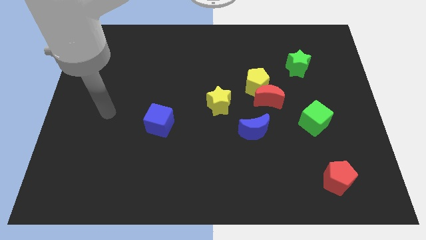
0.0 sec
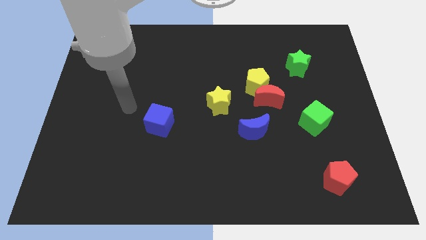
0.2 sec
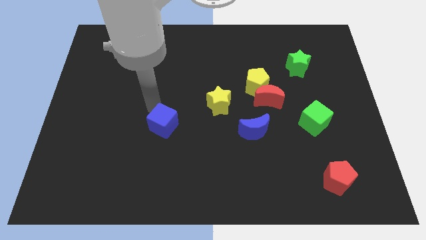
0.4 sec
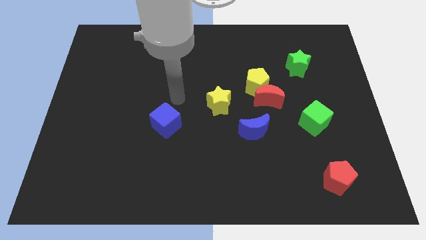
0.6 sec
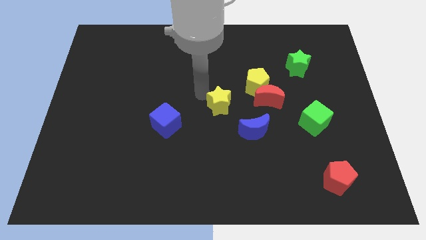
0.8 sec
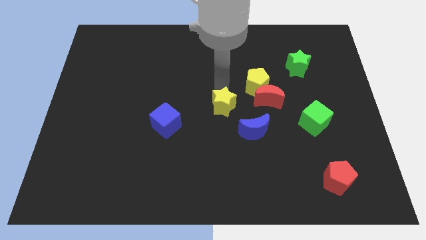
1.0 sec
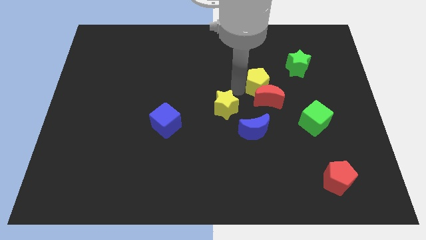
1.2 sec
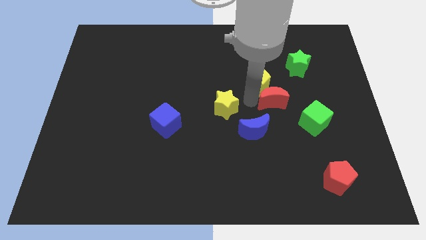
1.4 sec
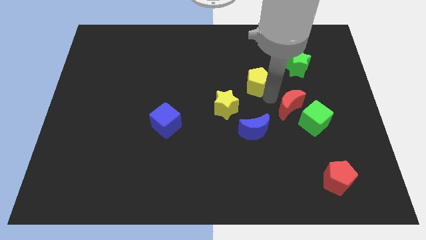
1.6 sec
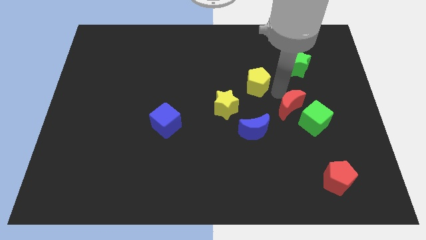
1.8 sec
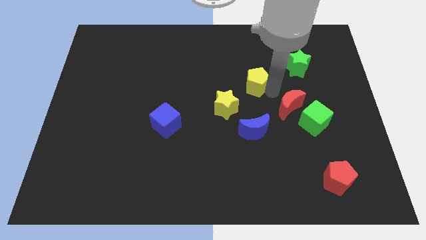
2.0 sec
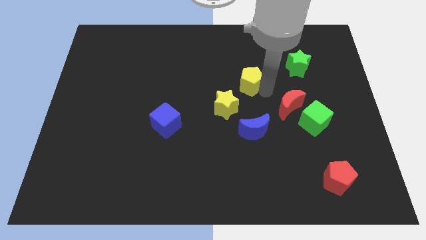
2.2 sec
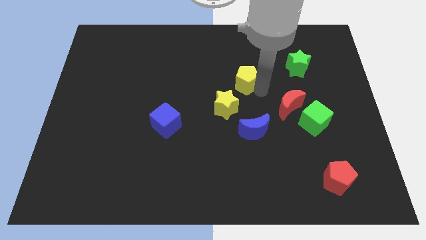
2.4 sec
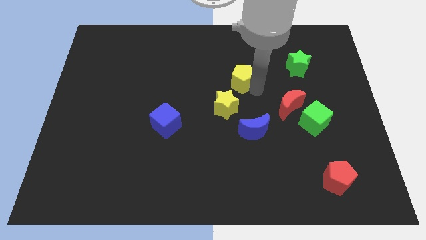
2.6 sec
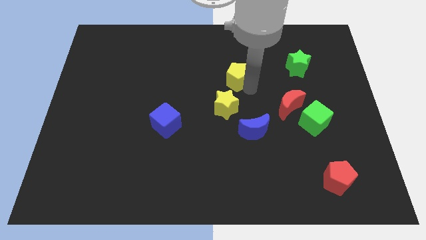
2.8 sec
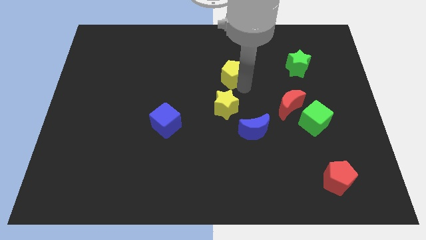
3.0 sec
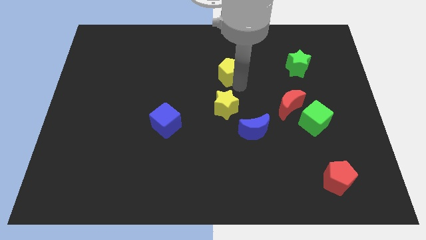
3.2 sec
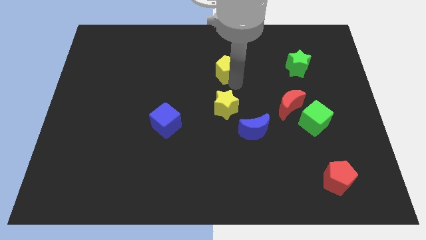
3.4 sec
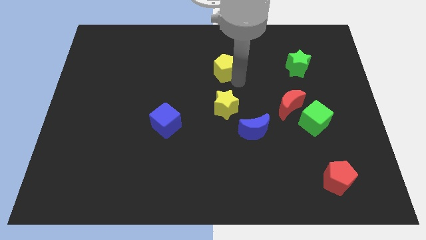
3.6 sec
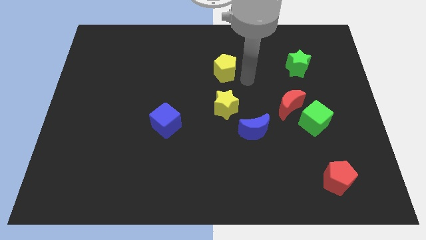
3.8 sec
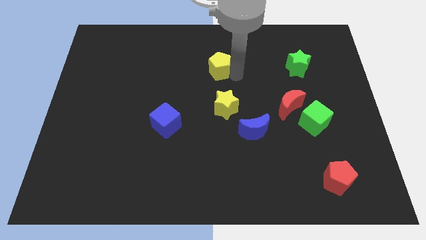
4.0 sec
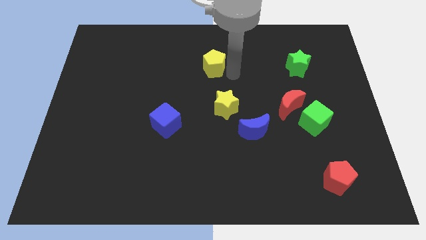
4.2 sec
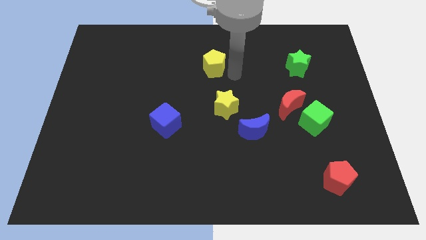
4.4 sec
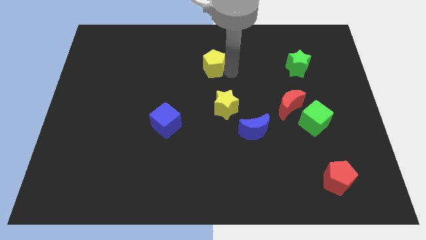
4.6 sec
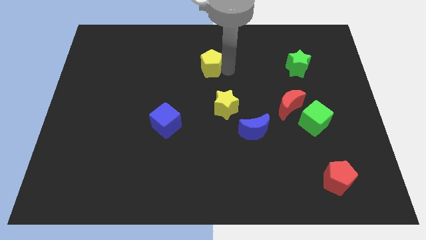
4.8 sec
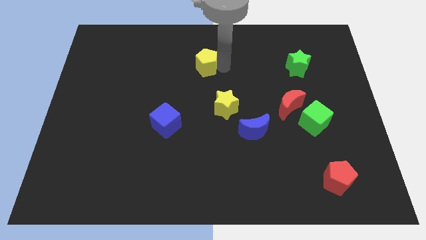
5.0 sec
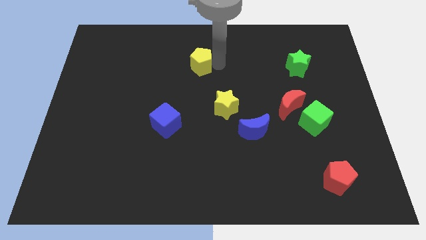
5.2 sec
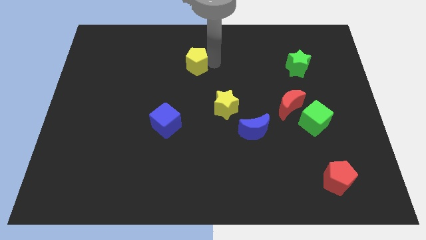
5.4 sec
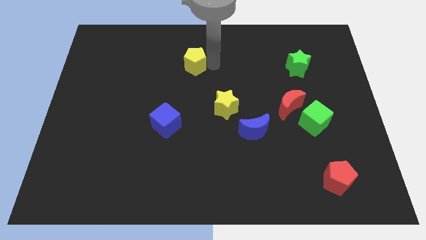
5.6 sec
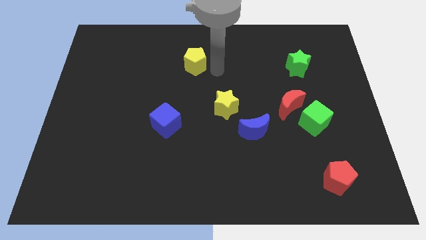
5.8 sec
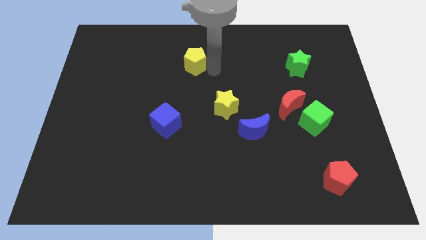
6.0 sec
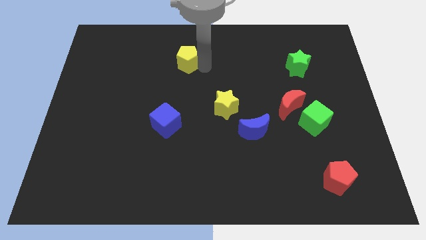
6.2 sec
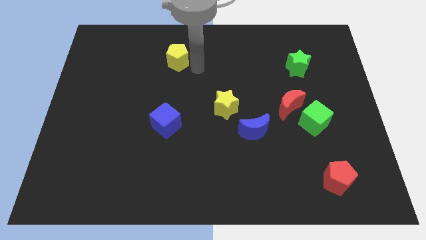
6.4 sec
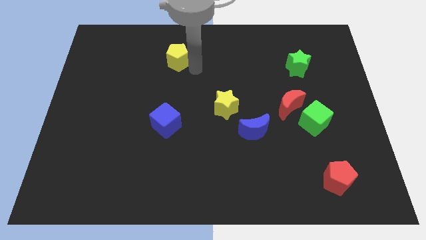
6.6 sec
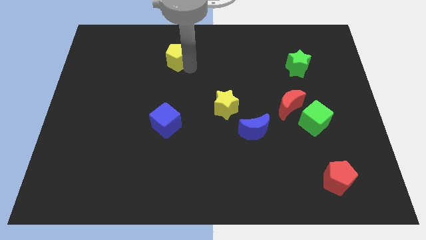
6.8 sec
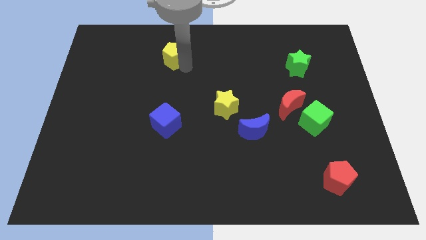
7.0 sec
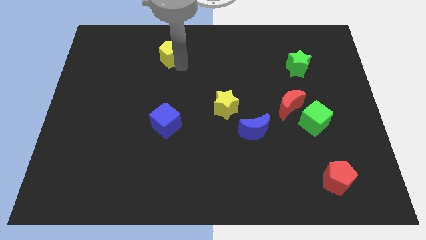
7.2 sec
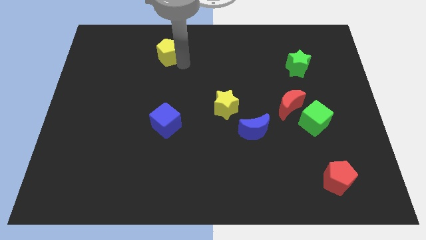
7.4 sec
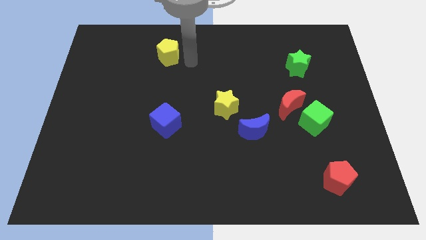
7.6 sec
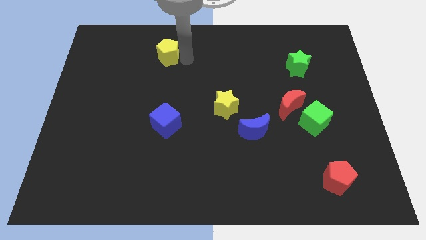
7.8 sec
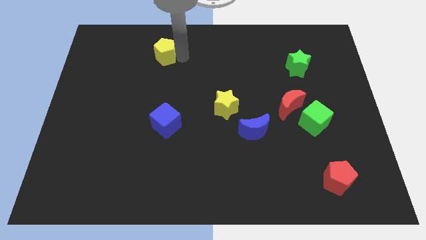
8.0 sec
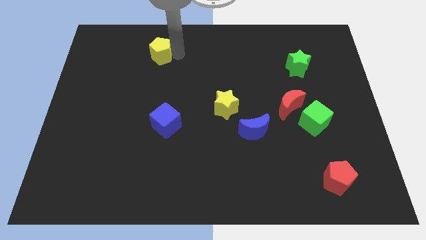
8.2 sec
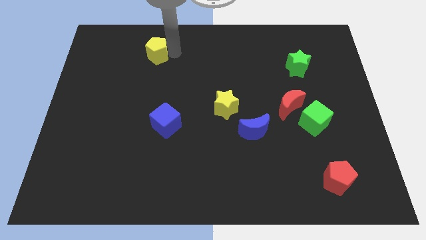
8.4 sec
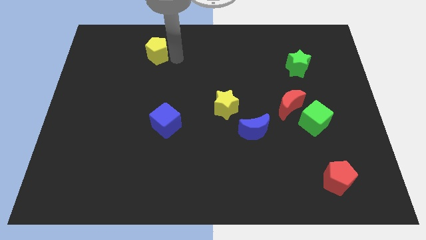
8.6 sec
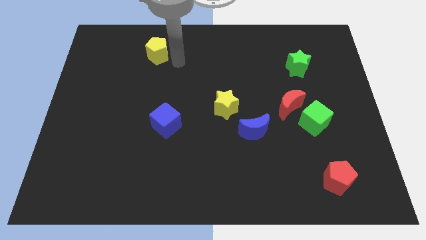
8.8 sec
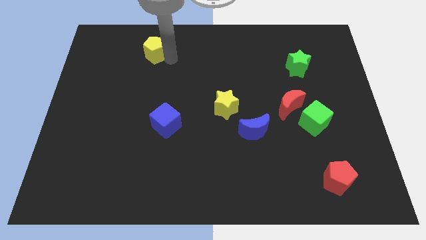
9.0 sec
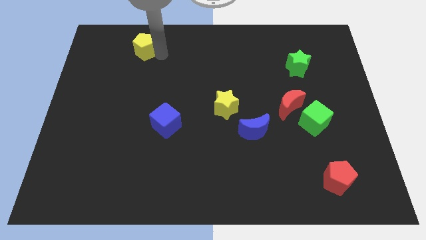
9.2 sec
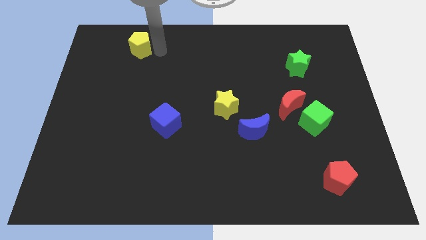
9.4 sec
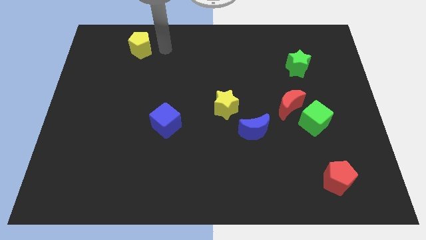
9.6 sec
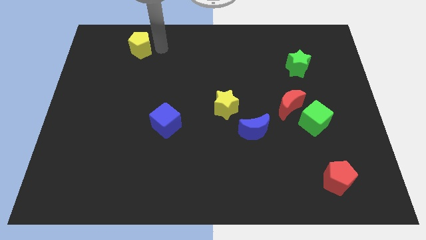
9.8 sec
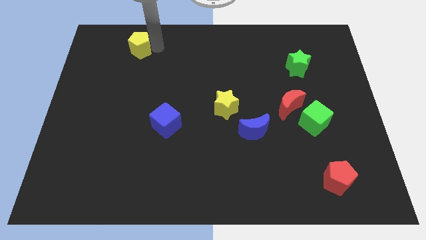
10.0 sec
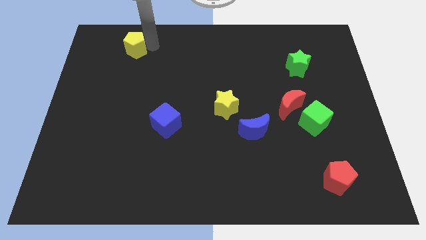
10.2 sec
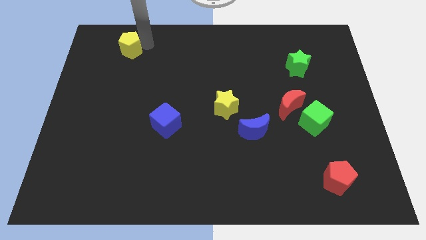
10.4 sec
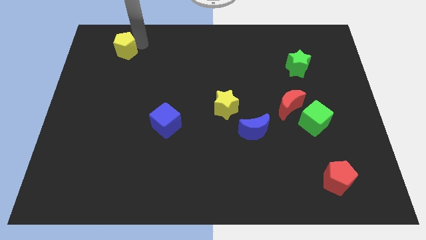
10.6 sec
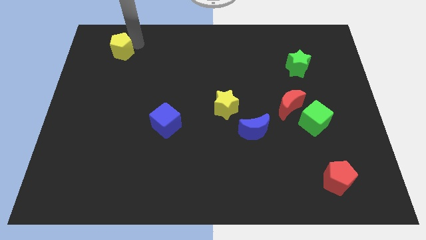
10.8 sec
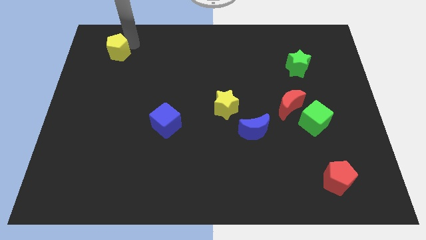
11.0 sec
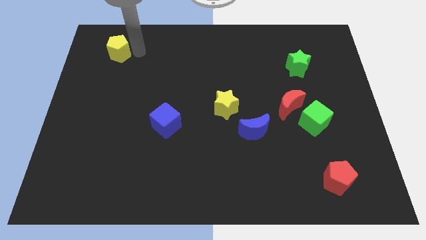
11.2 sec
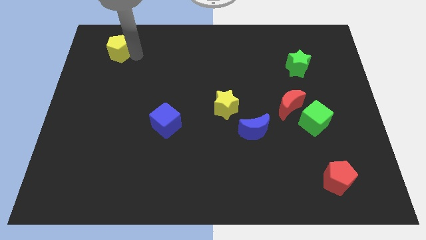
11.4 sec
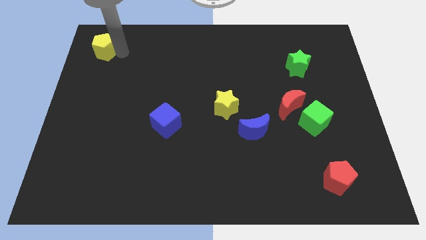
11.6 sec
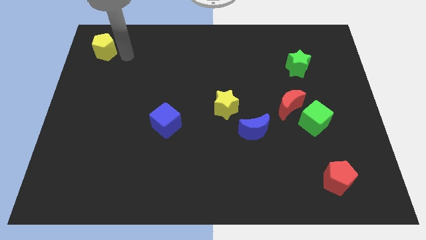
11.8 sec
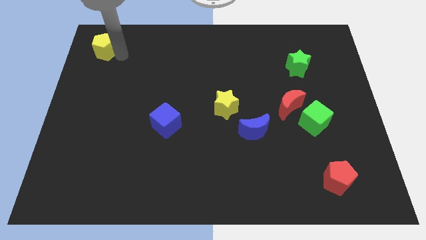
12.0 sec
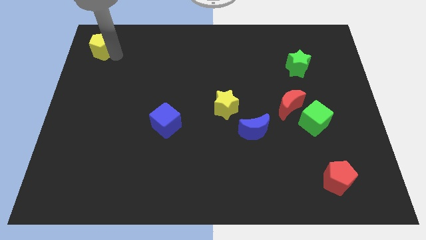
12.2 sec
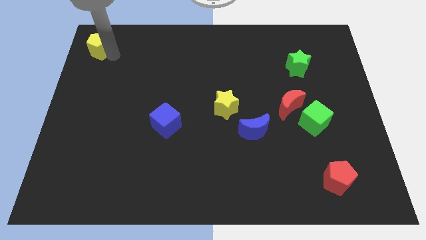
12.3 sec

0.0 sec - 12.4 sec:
put the yellow pentagon to the upper left corner
